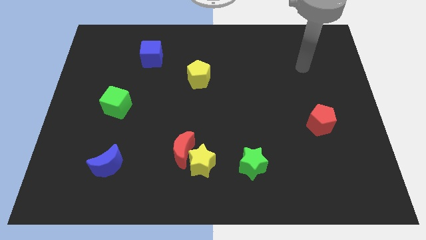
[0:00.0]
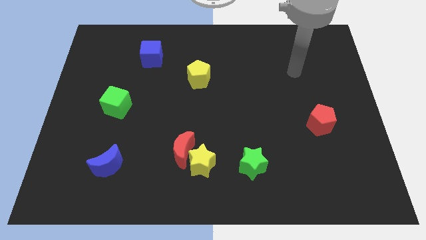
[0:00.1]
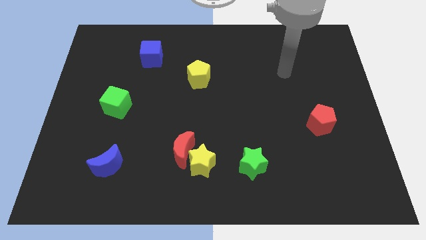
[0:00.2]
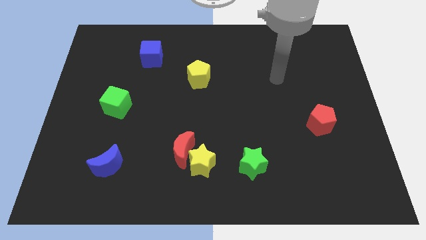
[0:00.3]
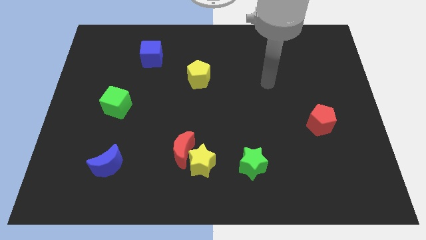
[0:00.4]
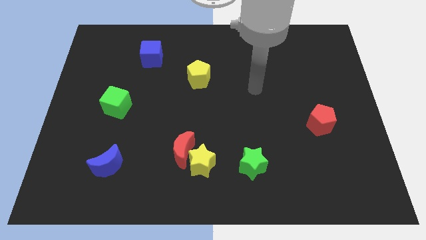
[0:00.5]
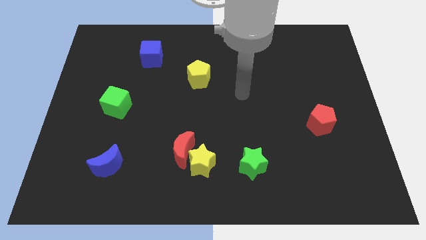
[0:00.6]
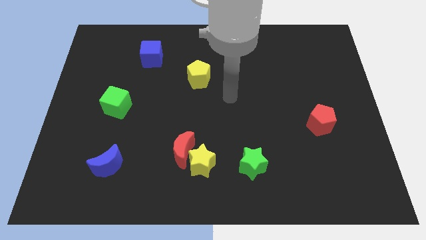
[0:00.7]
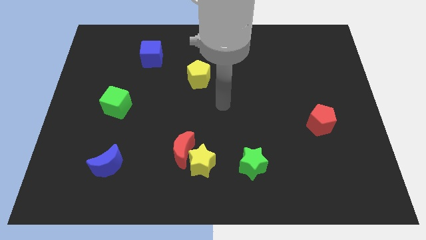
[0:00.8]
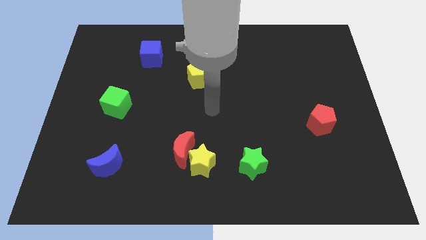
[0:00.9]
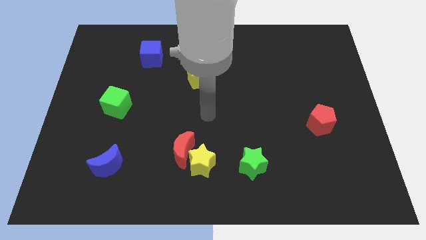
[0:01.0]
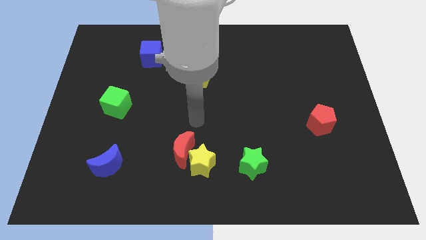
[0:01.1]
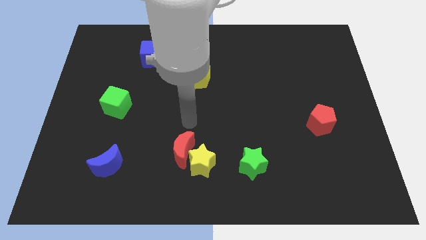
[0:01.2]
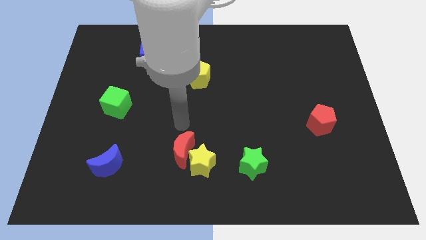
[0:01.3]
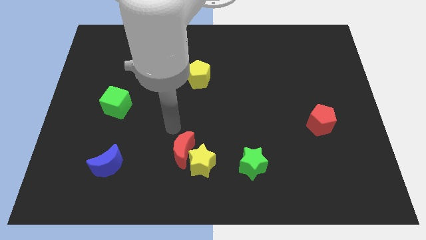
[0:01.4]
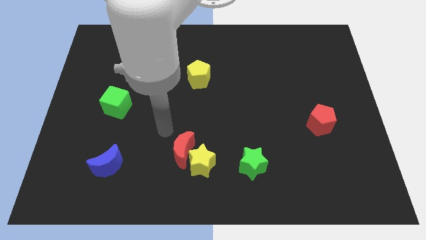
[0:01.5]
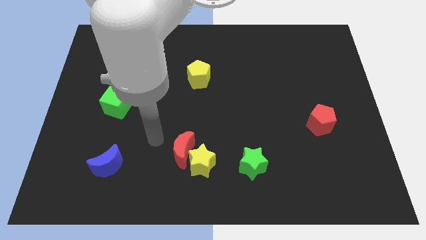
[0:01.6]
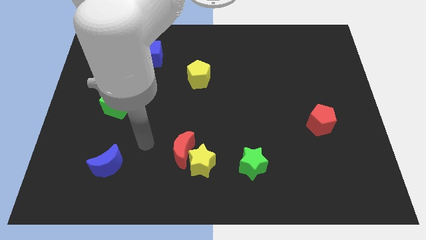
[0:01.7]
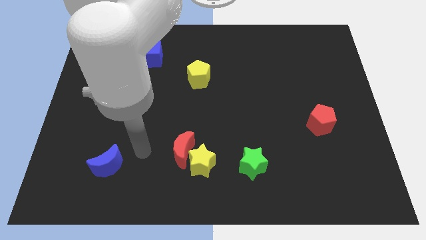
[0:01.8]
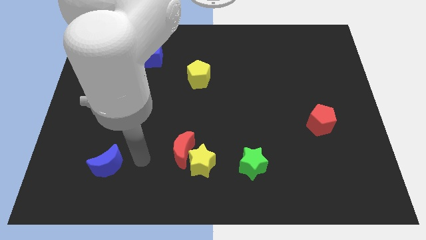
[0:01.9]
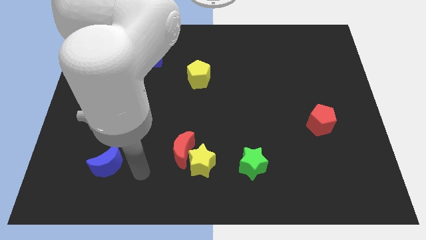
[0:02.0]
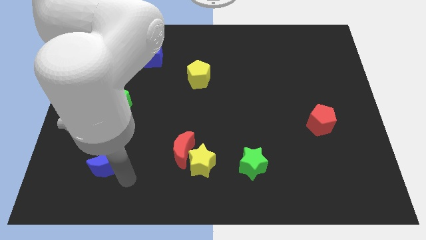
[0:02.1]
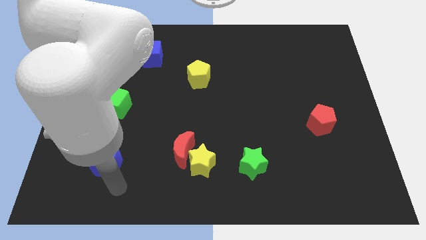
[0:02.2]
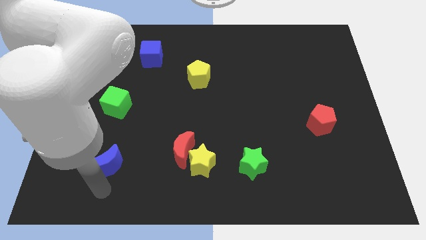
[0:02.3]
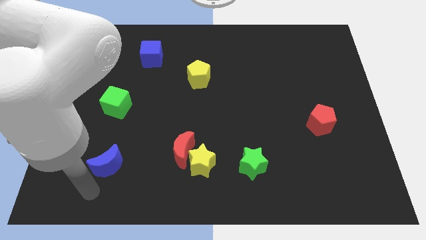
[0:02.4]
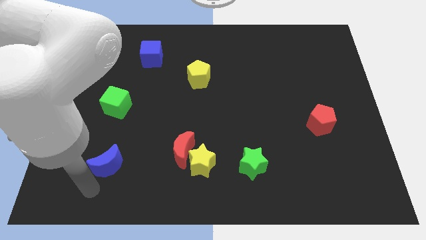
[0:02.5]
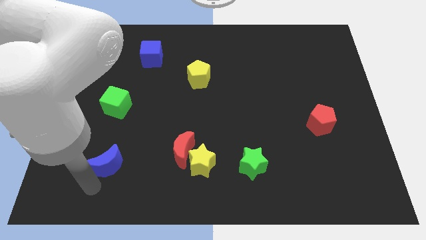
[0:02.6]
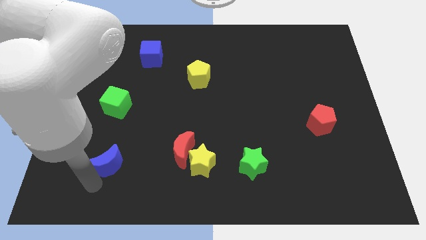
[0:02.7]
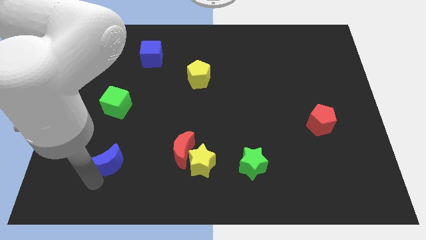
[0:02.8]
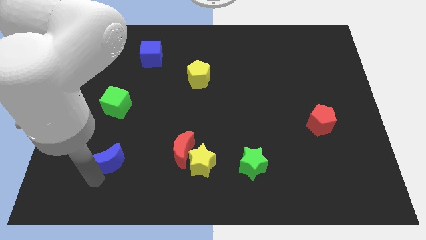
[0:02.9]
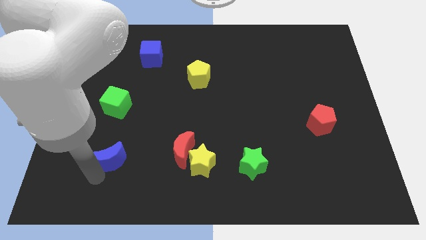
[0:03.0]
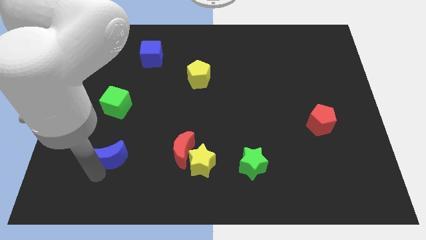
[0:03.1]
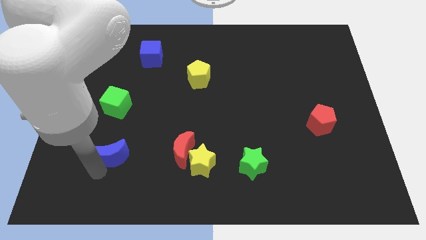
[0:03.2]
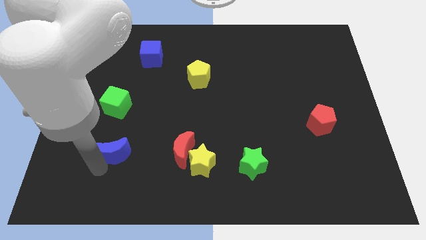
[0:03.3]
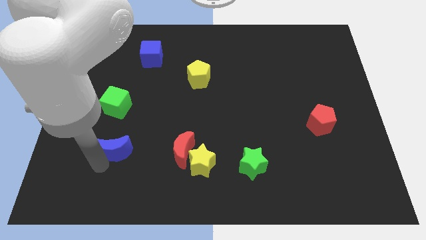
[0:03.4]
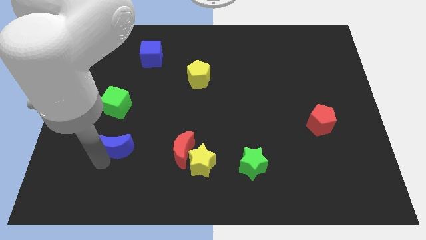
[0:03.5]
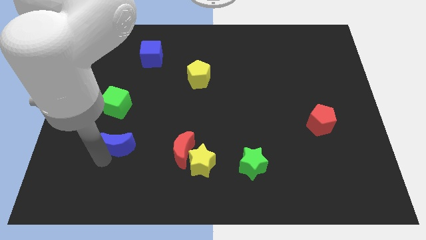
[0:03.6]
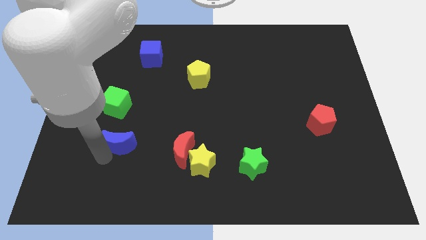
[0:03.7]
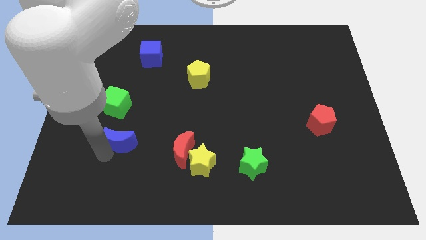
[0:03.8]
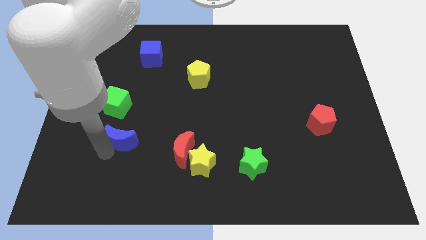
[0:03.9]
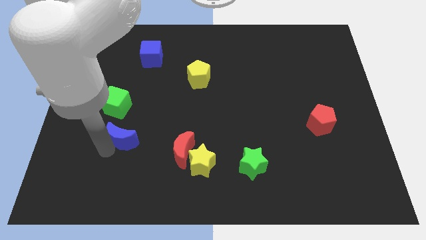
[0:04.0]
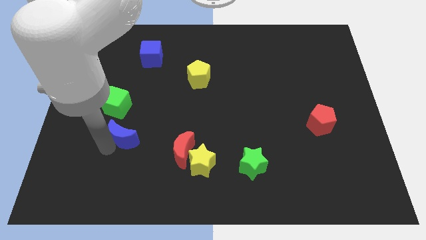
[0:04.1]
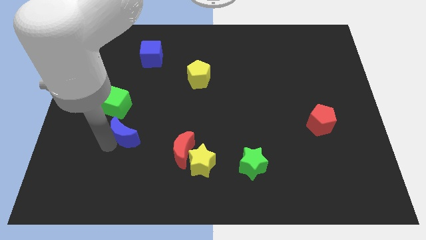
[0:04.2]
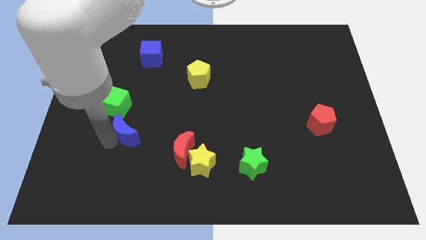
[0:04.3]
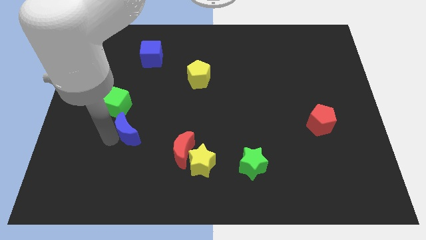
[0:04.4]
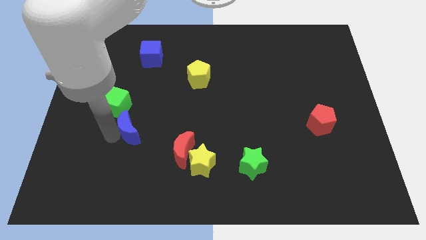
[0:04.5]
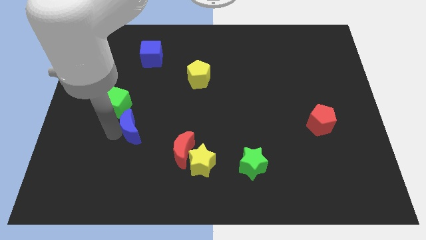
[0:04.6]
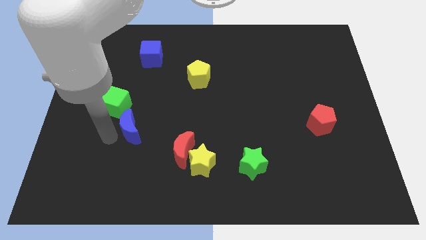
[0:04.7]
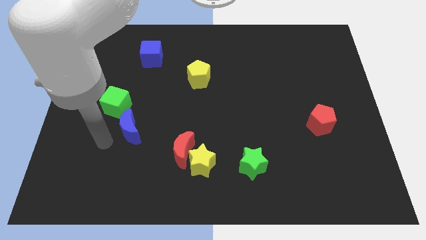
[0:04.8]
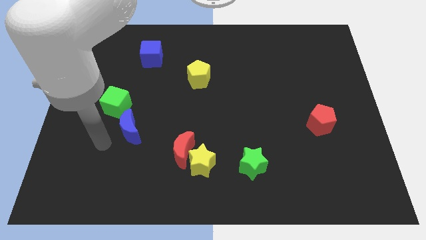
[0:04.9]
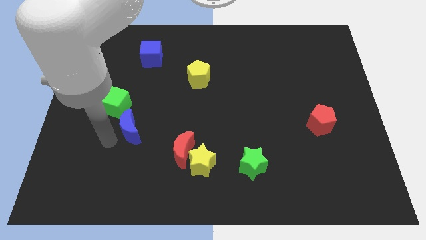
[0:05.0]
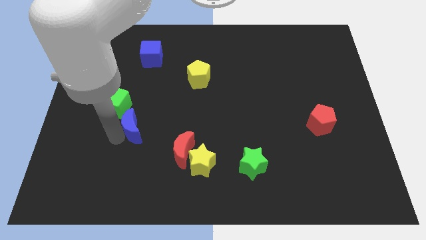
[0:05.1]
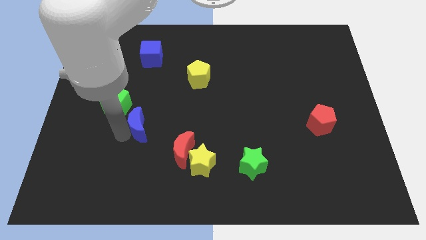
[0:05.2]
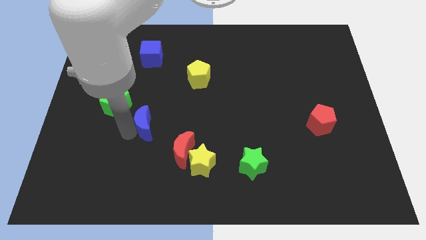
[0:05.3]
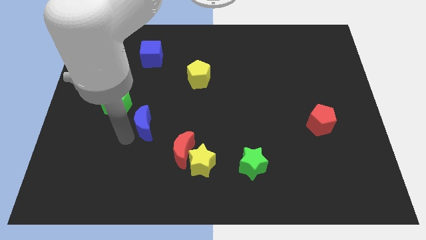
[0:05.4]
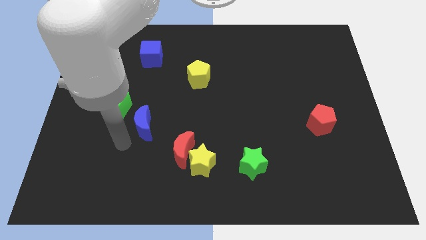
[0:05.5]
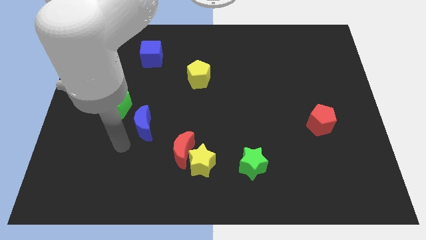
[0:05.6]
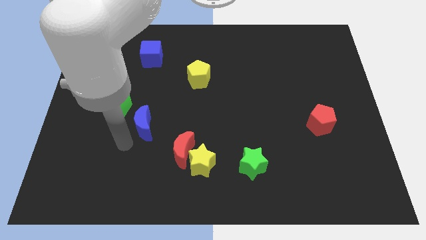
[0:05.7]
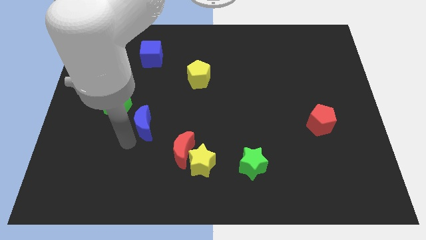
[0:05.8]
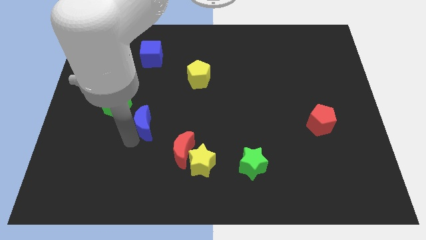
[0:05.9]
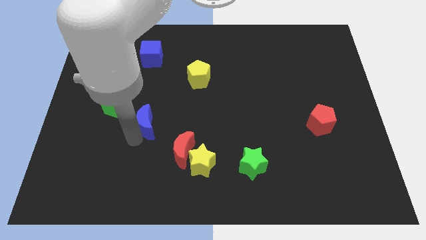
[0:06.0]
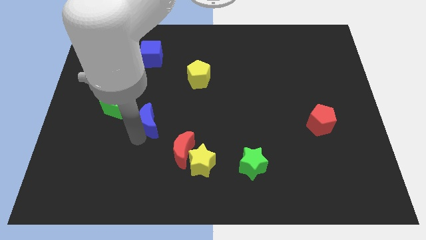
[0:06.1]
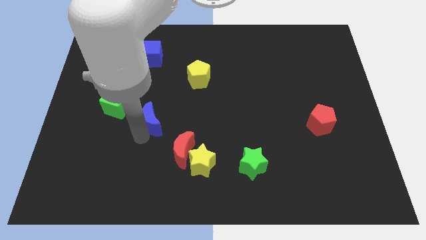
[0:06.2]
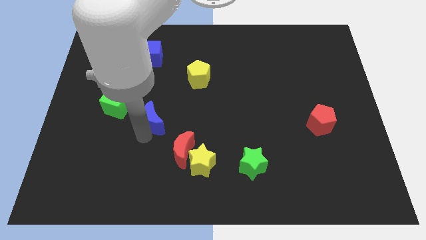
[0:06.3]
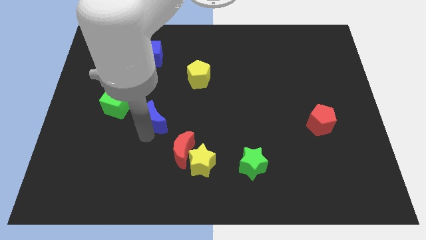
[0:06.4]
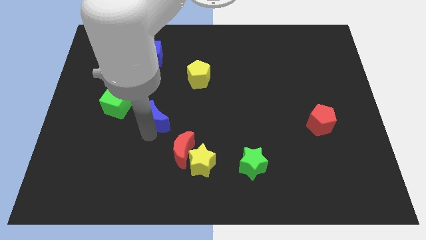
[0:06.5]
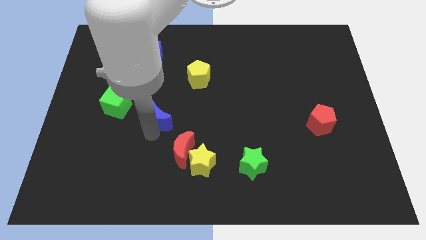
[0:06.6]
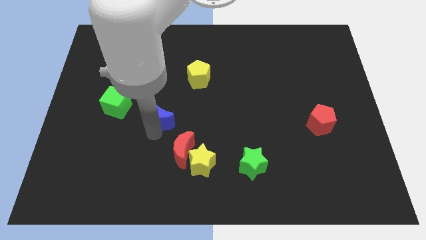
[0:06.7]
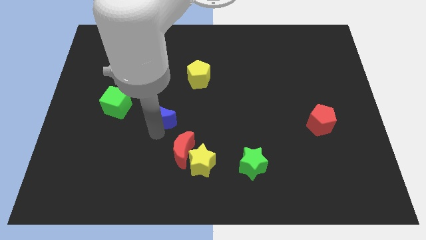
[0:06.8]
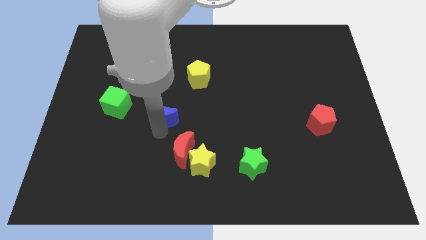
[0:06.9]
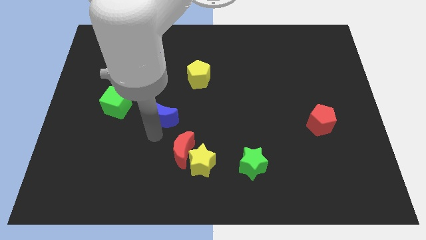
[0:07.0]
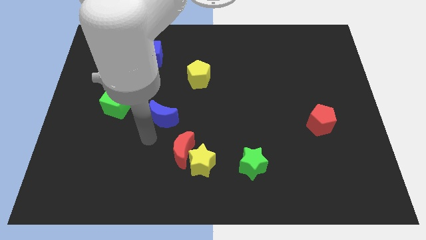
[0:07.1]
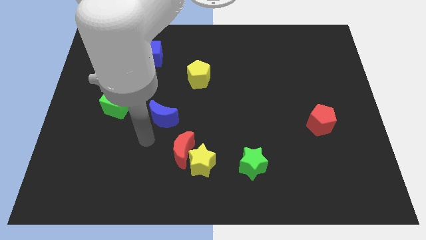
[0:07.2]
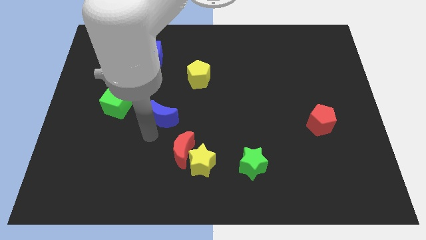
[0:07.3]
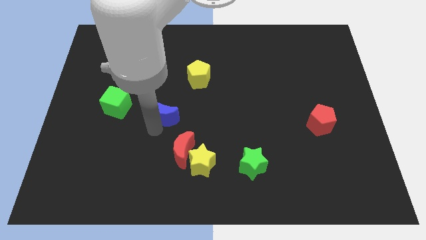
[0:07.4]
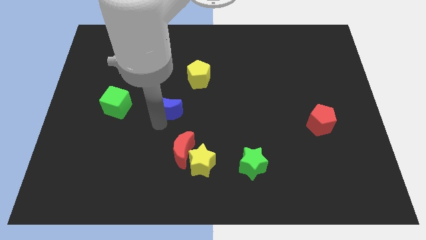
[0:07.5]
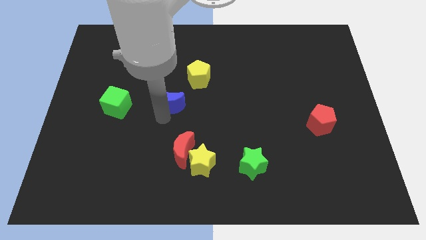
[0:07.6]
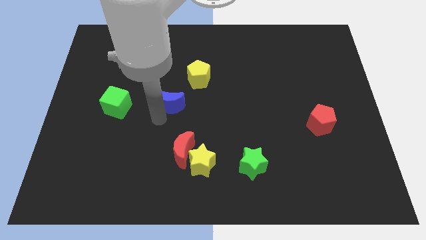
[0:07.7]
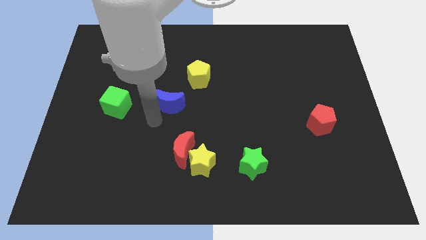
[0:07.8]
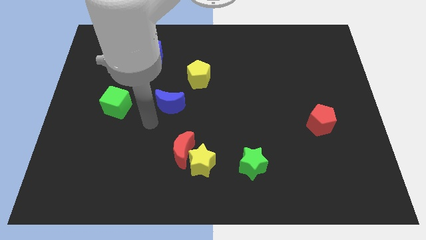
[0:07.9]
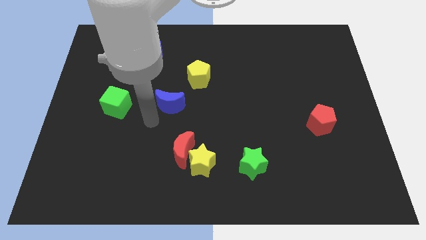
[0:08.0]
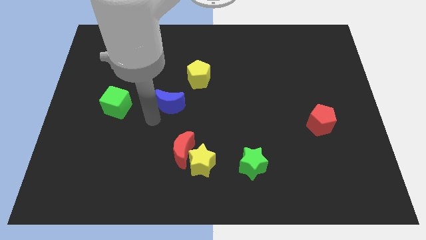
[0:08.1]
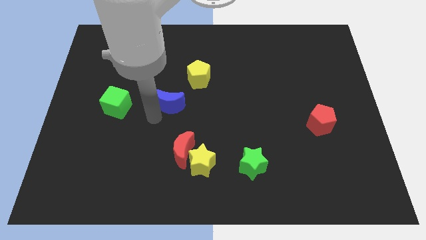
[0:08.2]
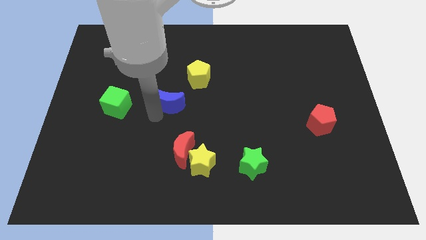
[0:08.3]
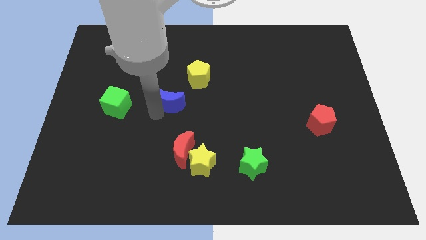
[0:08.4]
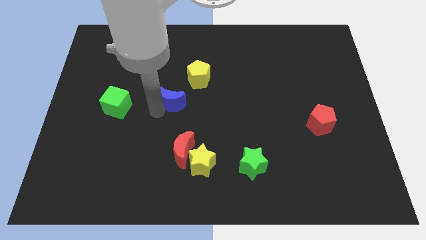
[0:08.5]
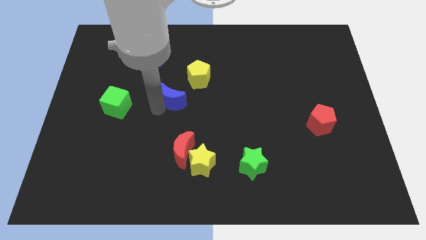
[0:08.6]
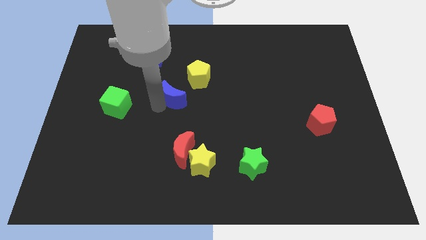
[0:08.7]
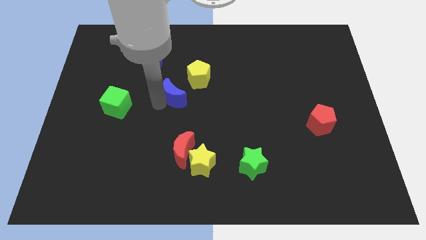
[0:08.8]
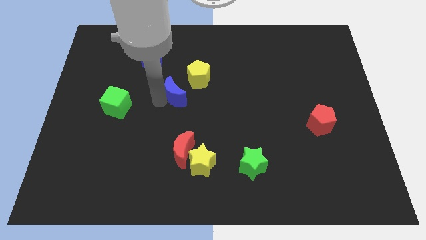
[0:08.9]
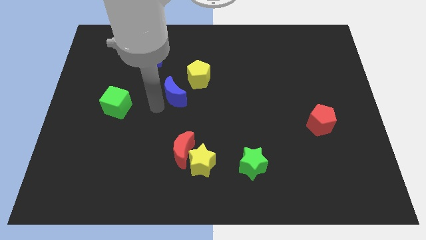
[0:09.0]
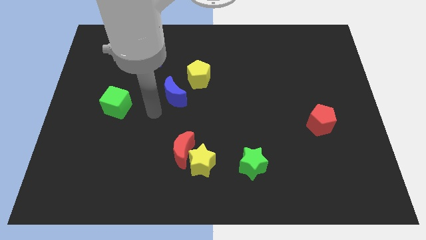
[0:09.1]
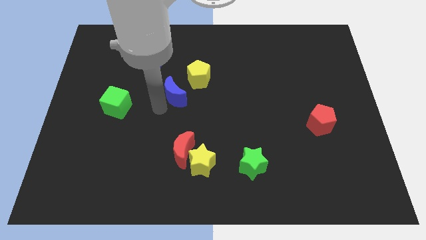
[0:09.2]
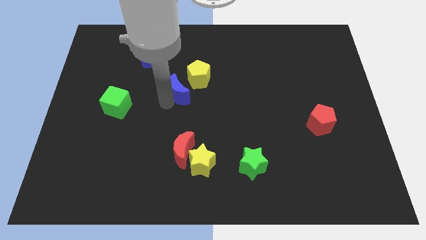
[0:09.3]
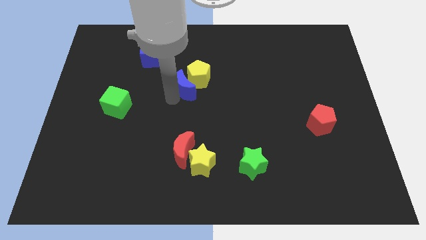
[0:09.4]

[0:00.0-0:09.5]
move the blue moon to the yellow pentagon
